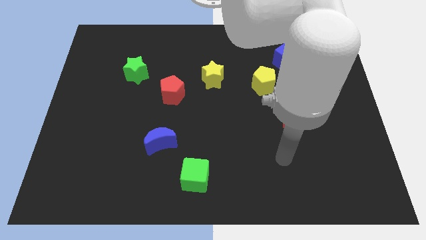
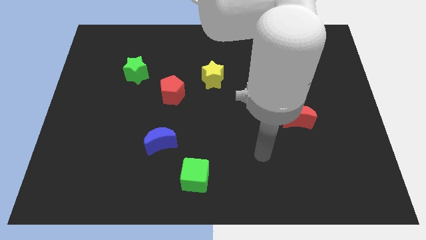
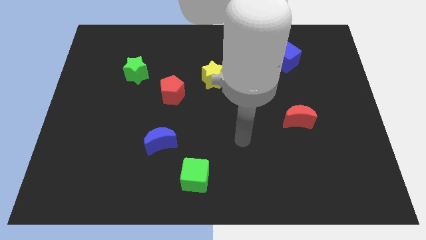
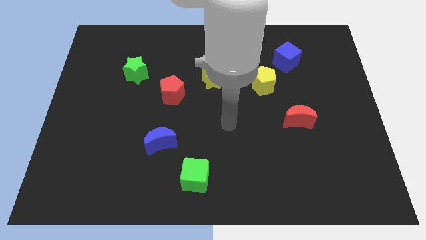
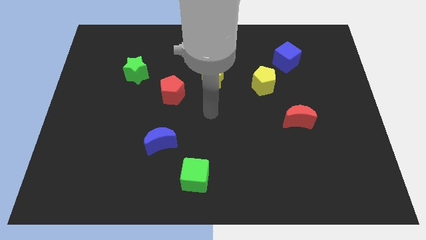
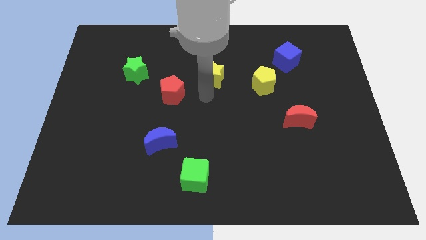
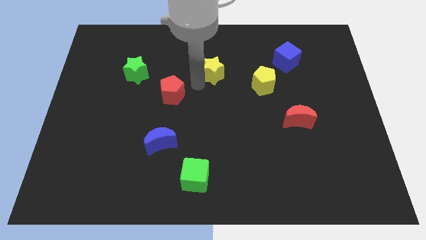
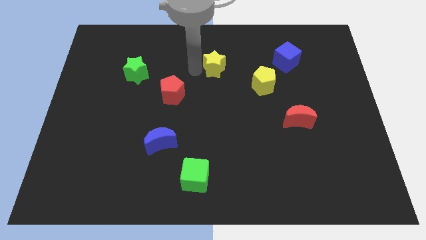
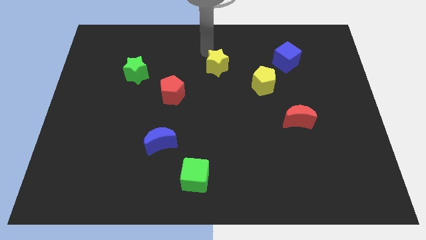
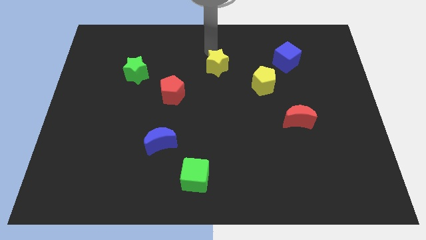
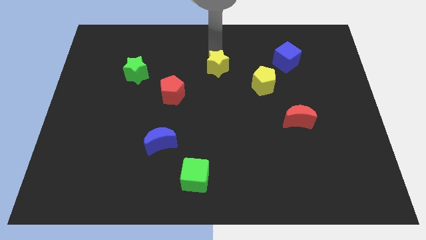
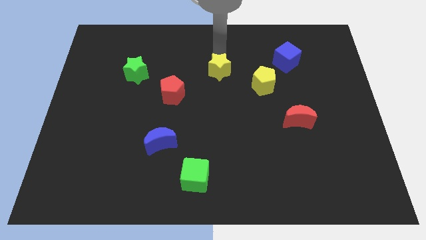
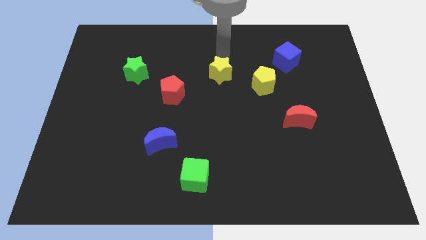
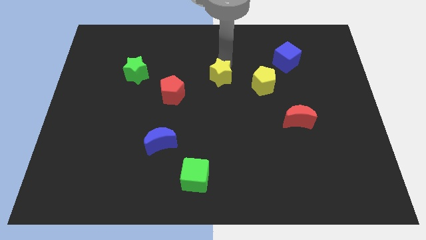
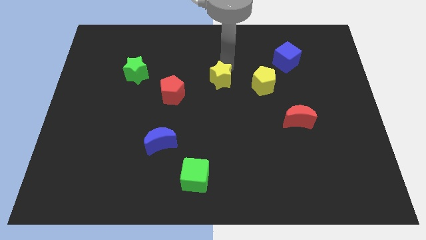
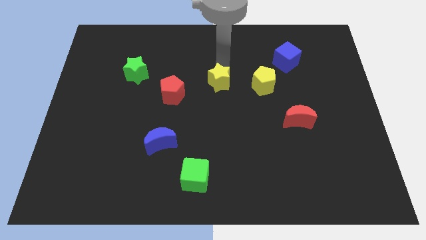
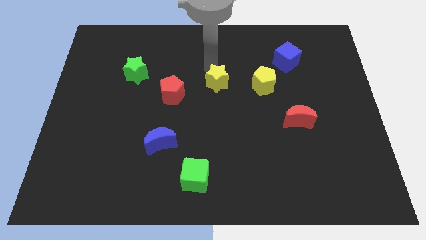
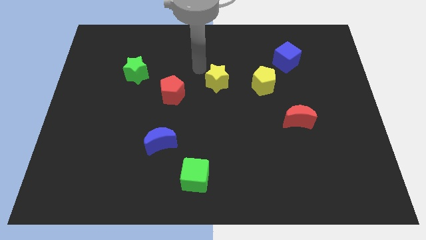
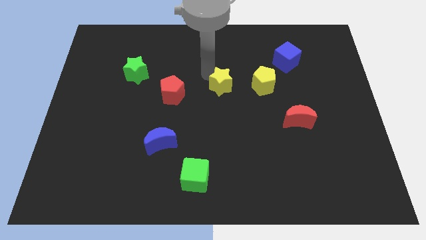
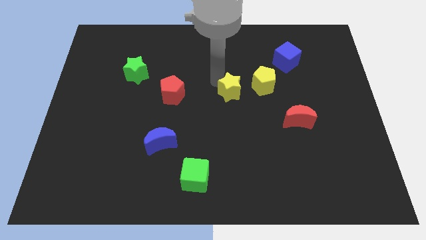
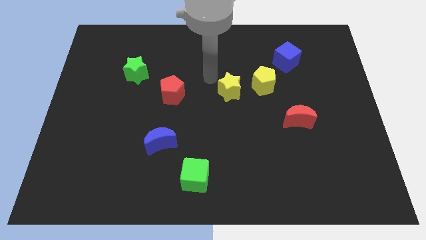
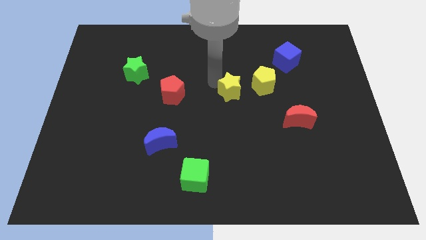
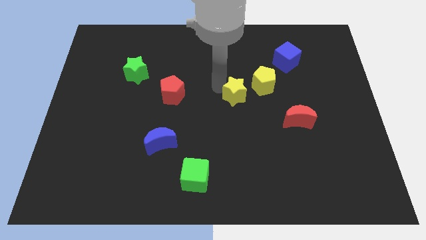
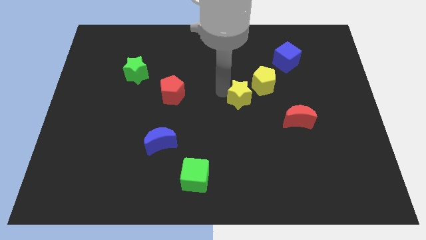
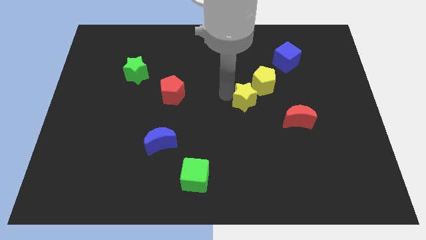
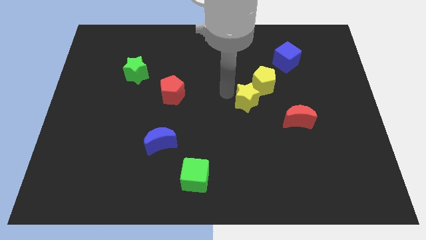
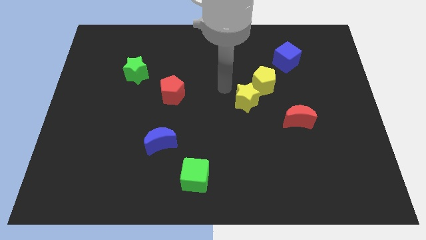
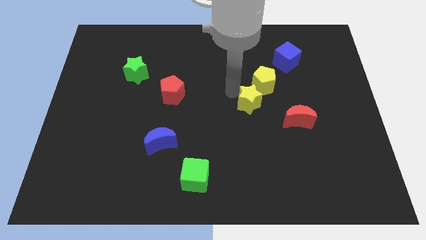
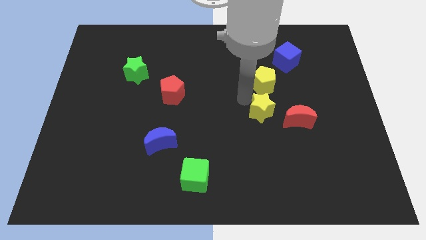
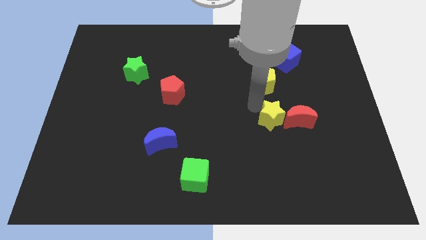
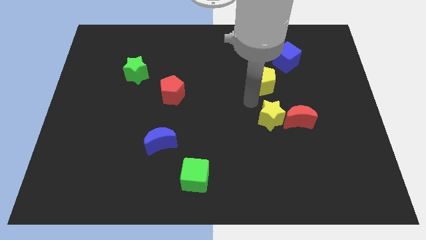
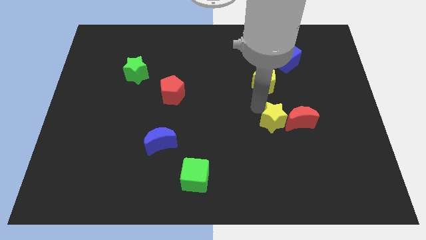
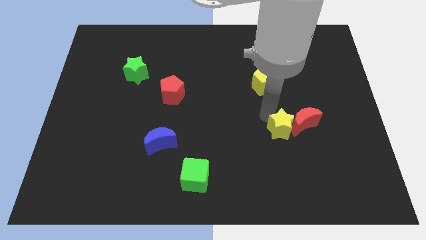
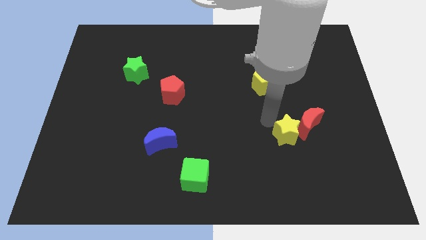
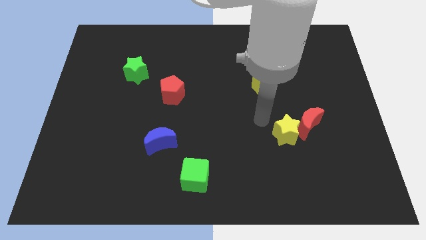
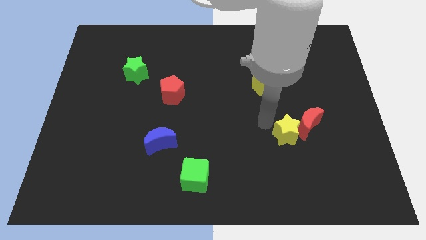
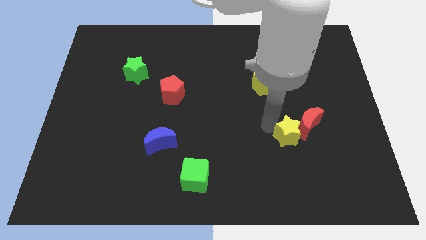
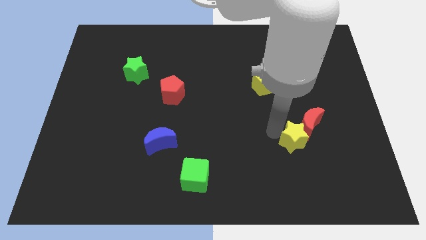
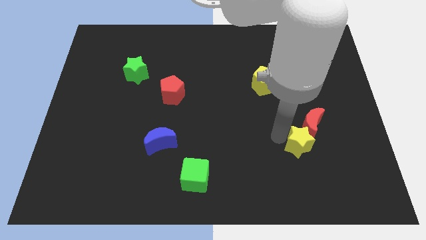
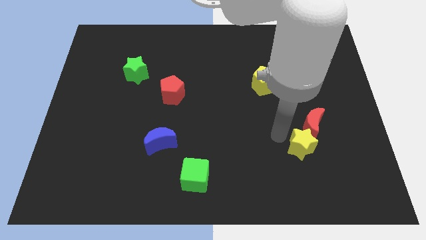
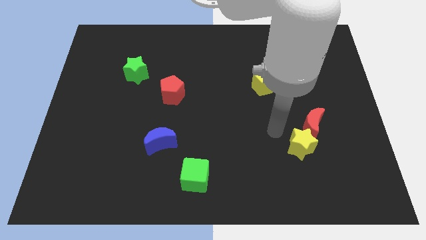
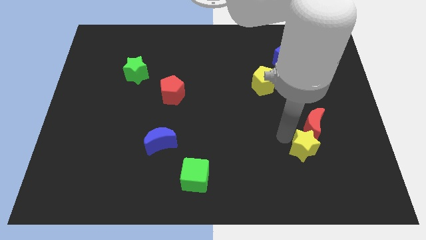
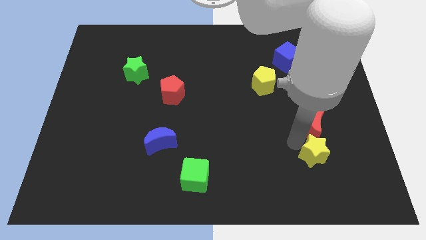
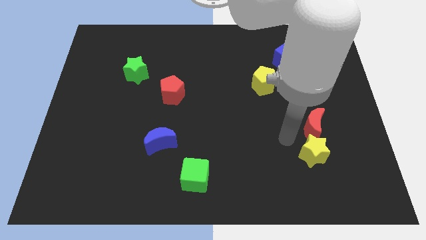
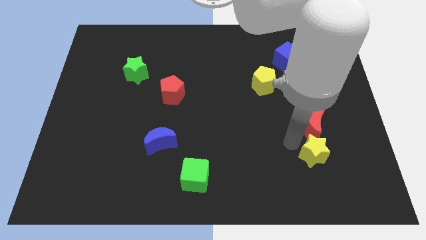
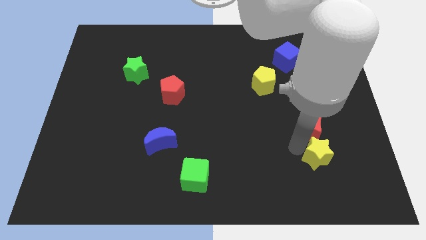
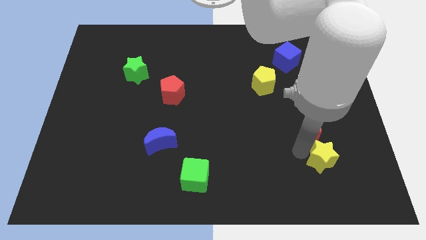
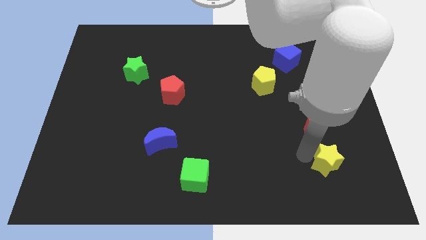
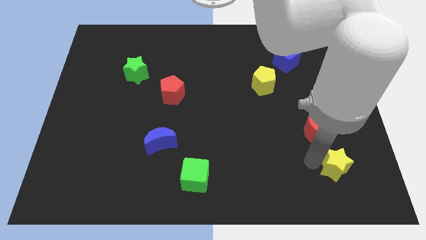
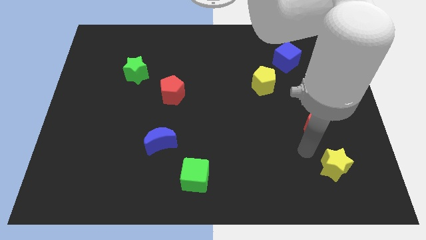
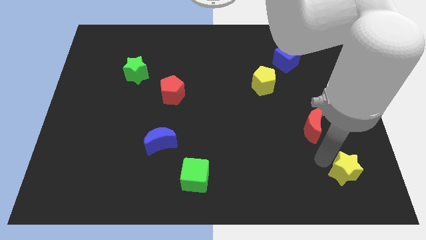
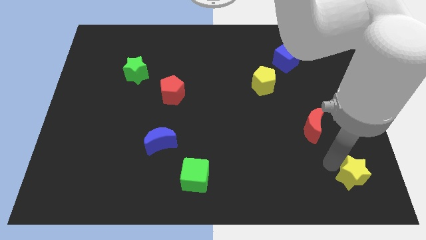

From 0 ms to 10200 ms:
put the yellow star to the bottom right

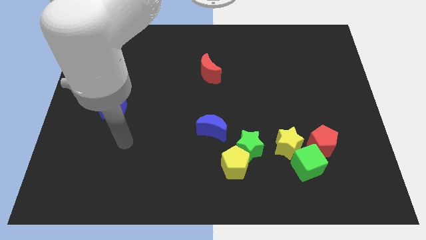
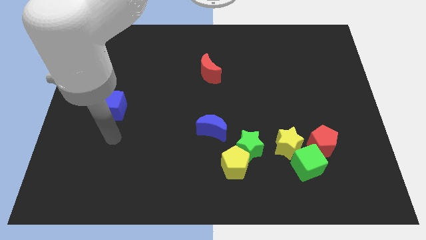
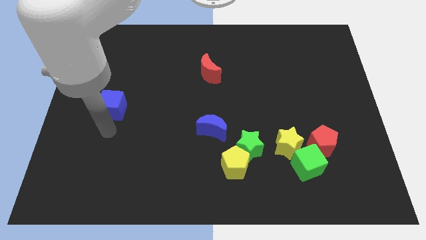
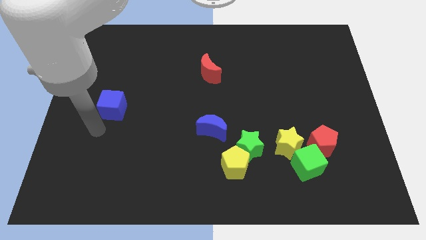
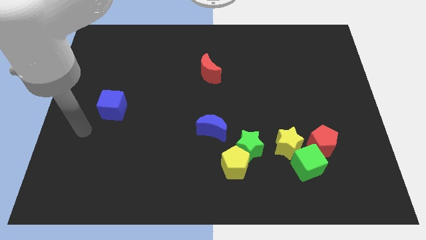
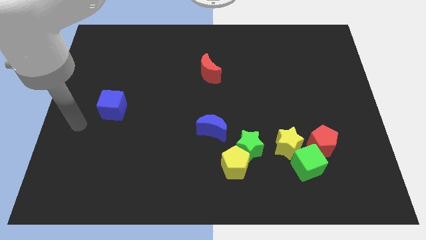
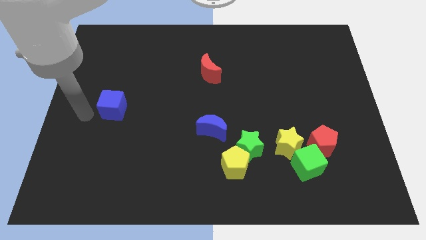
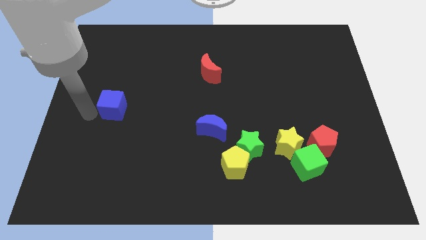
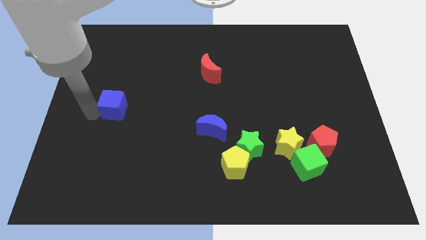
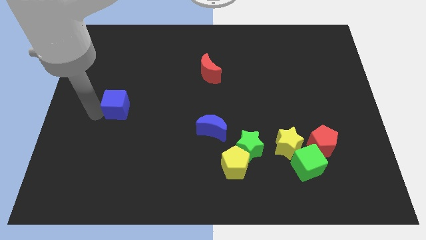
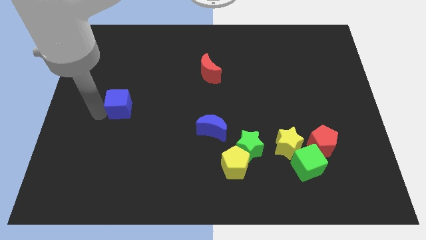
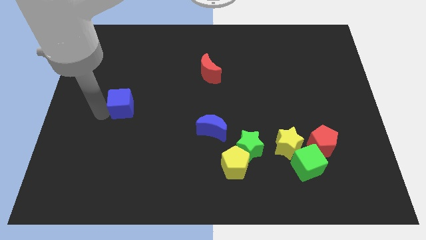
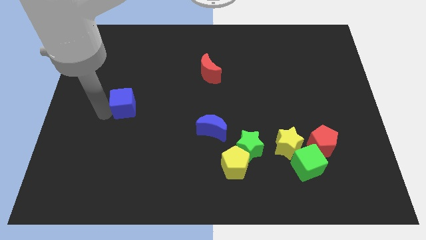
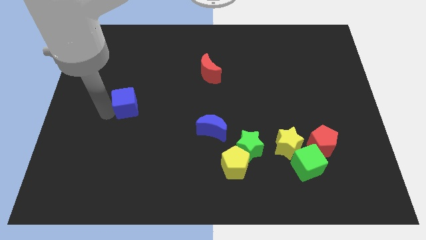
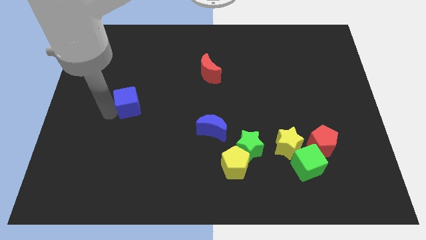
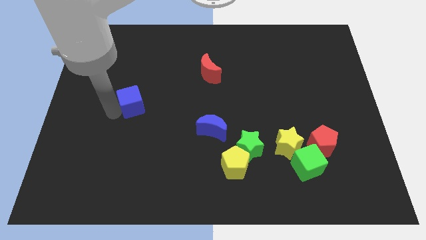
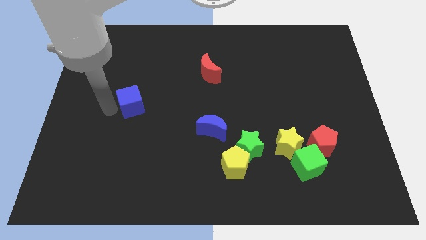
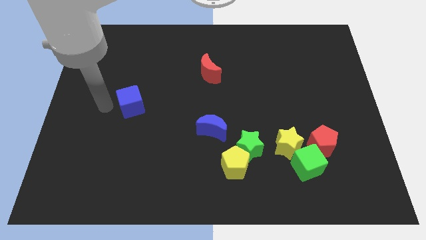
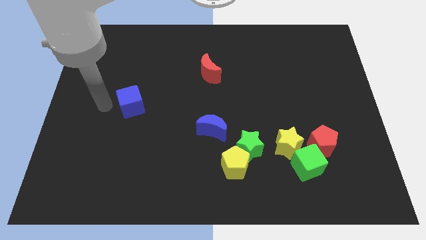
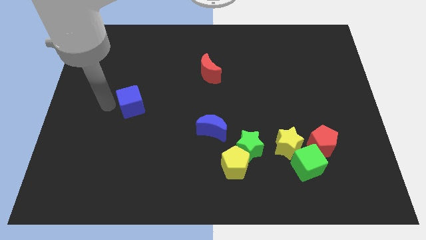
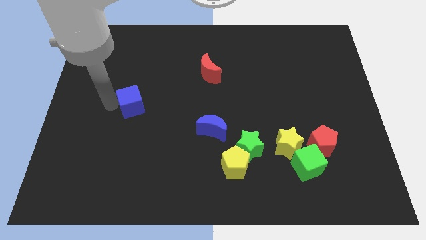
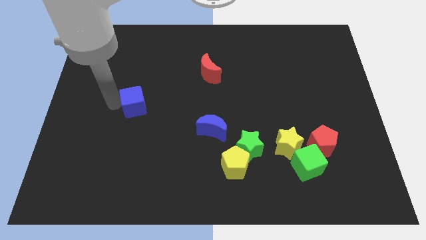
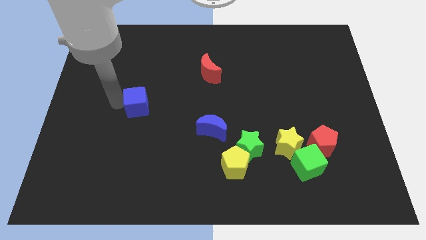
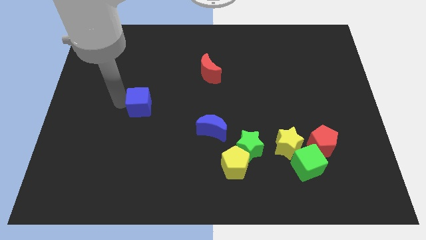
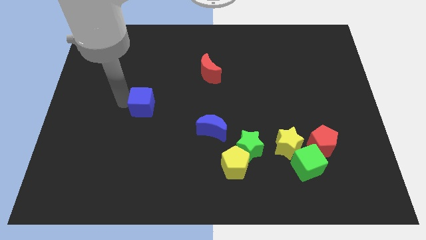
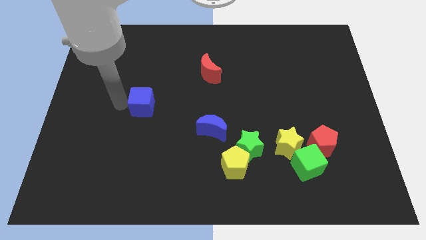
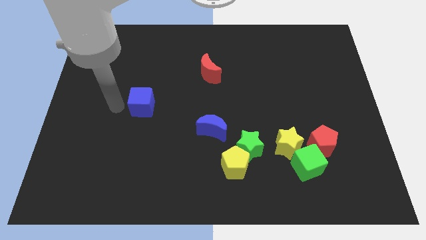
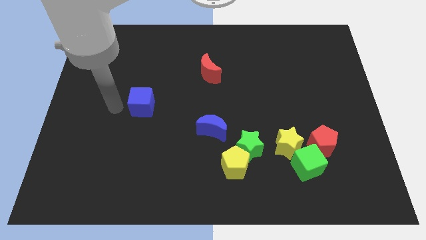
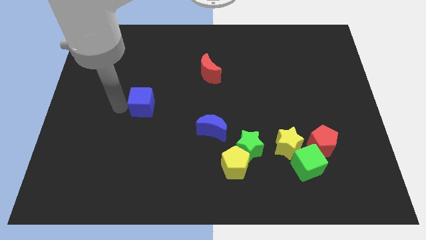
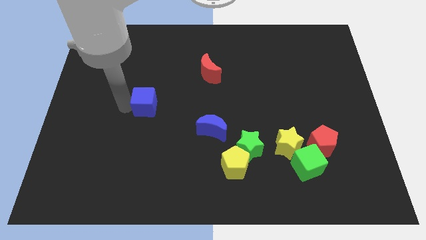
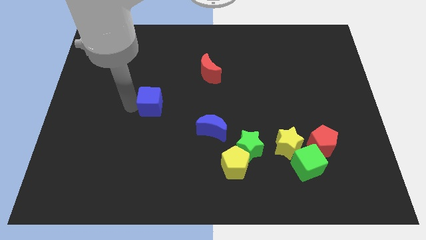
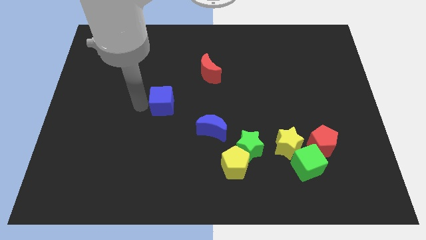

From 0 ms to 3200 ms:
move the blue cube to the center
